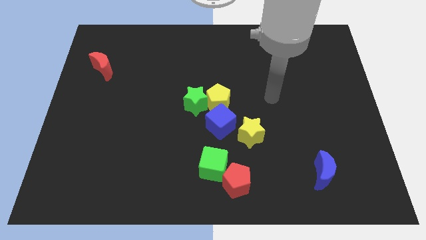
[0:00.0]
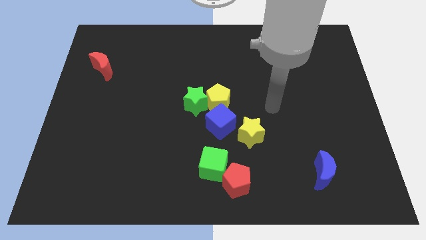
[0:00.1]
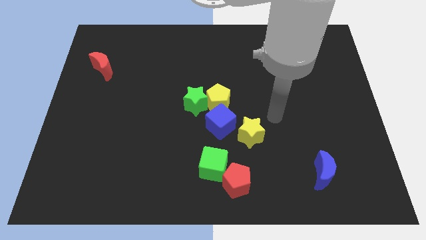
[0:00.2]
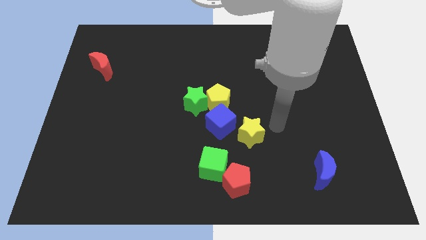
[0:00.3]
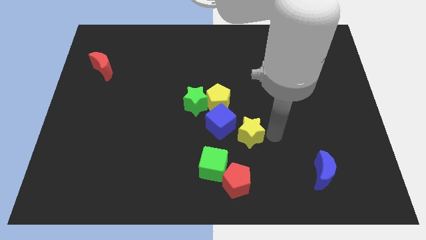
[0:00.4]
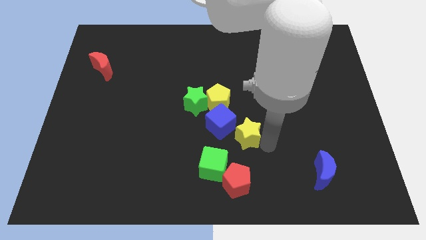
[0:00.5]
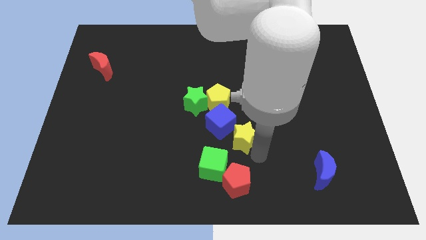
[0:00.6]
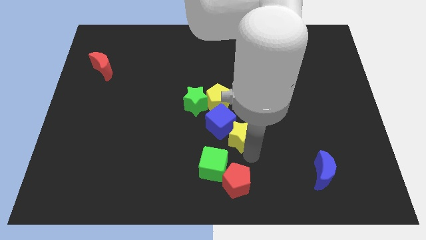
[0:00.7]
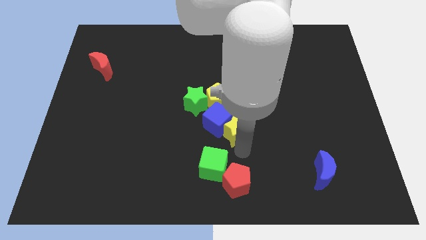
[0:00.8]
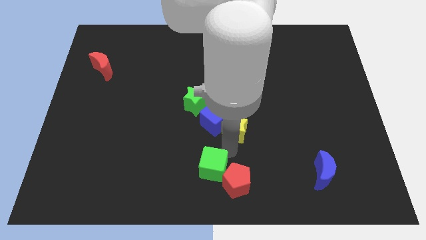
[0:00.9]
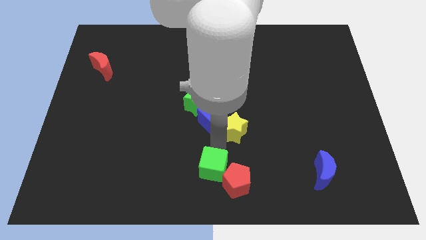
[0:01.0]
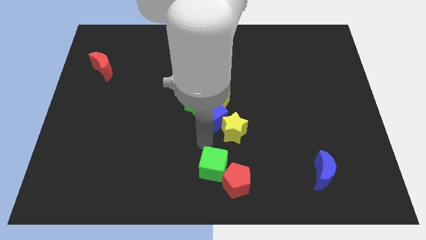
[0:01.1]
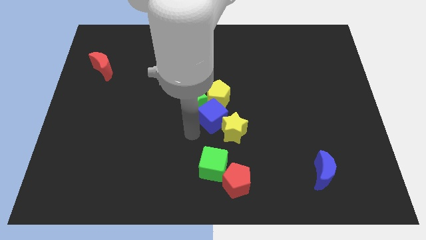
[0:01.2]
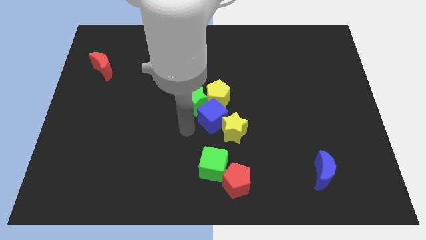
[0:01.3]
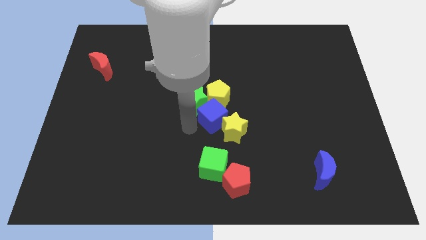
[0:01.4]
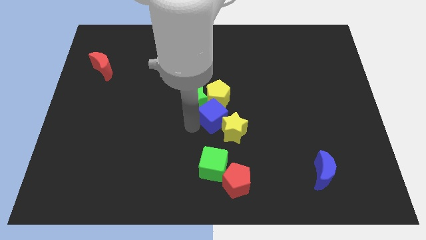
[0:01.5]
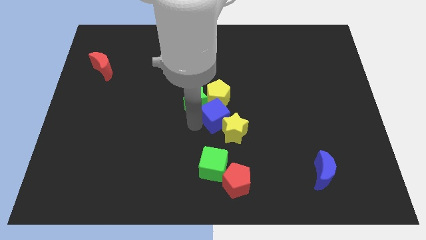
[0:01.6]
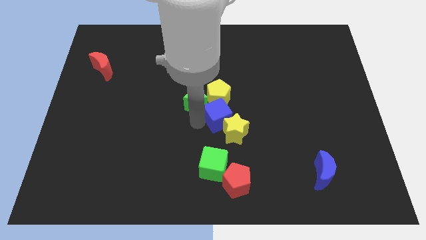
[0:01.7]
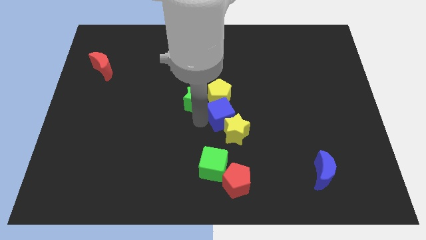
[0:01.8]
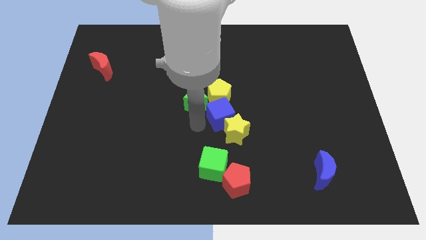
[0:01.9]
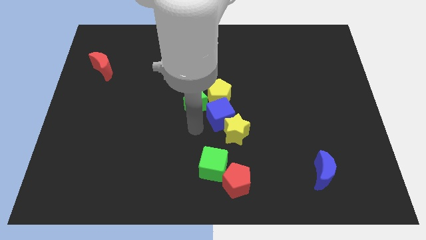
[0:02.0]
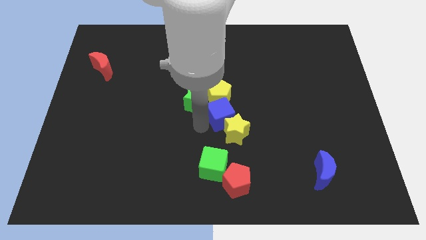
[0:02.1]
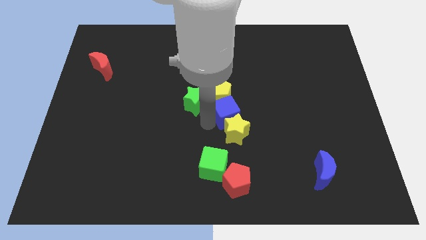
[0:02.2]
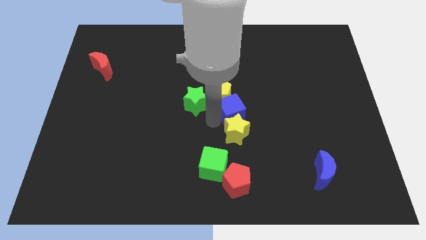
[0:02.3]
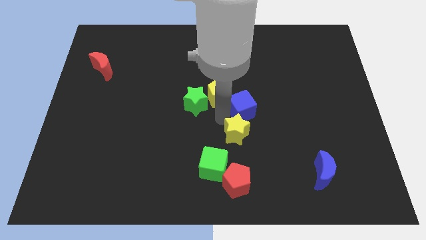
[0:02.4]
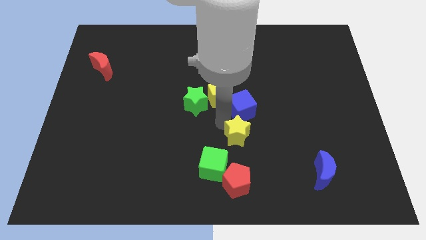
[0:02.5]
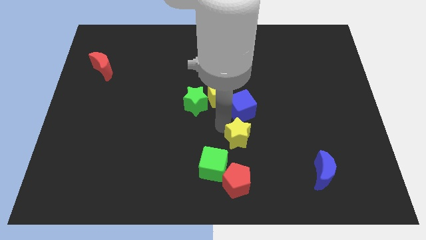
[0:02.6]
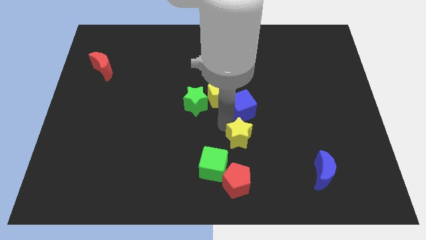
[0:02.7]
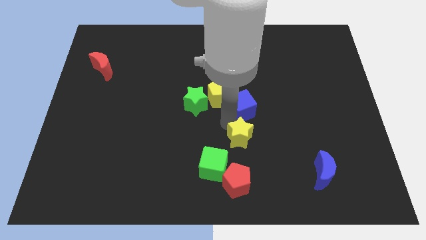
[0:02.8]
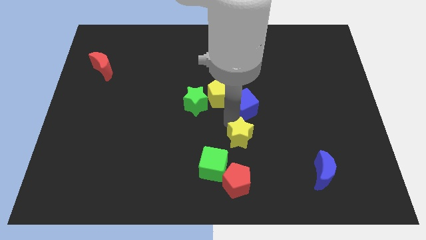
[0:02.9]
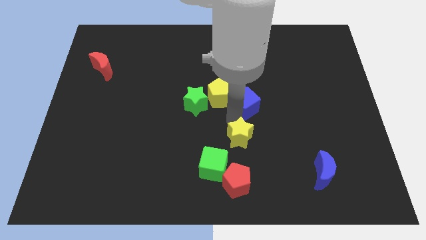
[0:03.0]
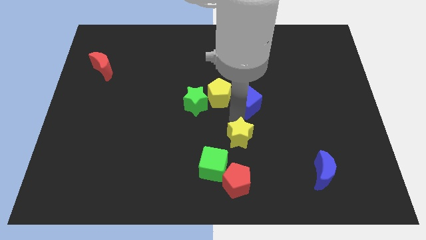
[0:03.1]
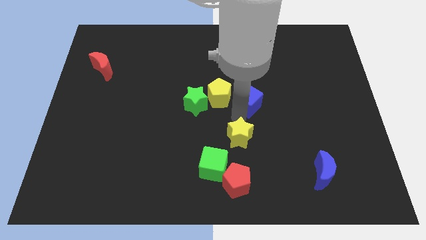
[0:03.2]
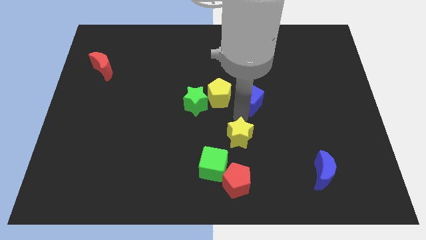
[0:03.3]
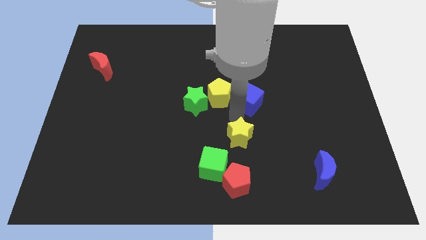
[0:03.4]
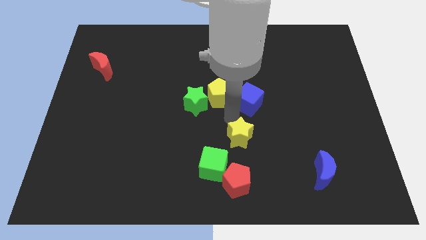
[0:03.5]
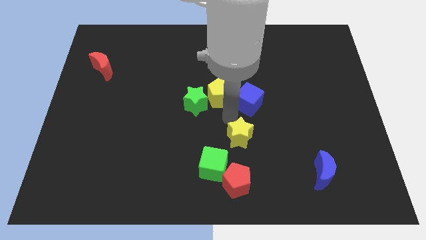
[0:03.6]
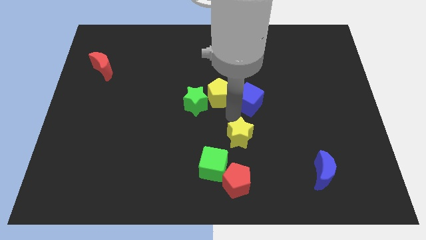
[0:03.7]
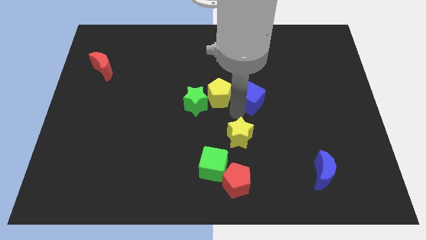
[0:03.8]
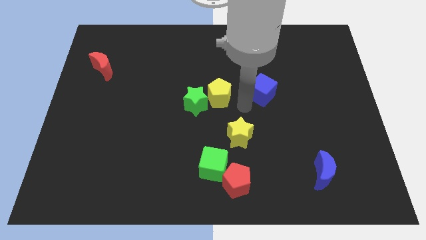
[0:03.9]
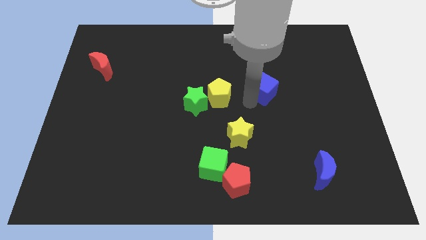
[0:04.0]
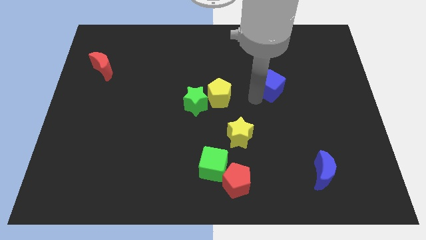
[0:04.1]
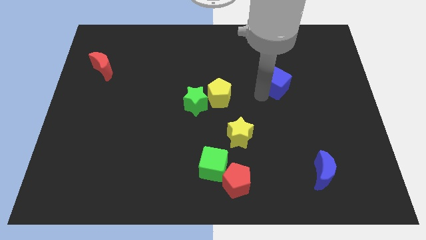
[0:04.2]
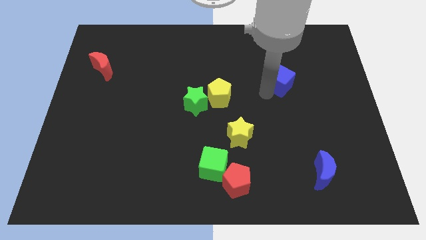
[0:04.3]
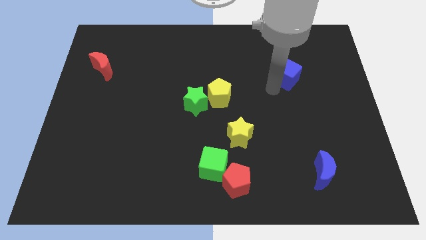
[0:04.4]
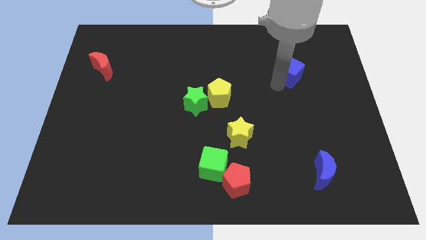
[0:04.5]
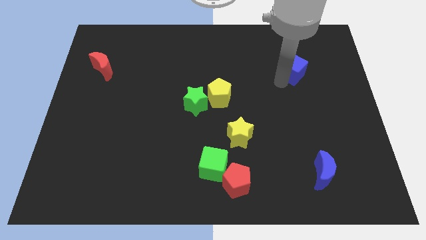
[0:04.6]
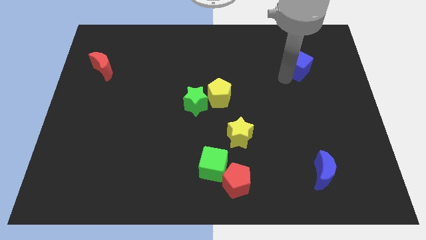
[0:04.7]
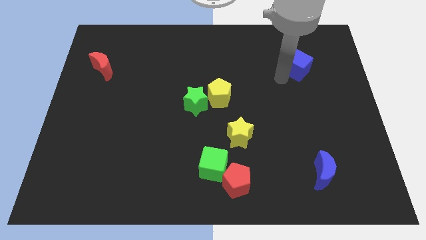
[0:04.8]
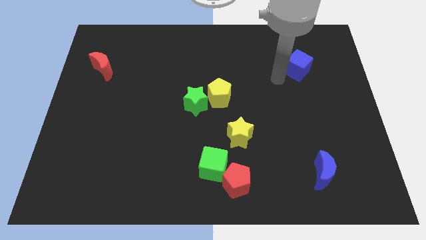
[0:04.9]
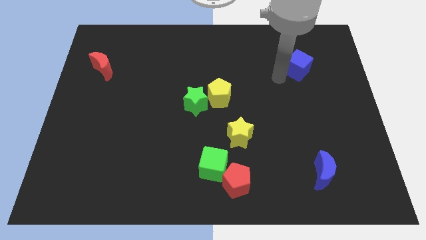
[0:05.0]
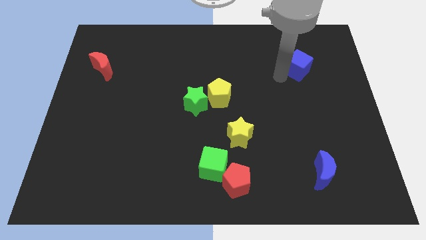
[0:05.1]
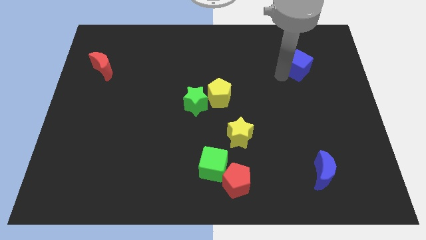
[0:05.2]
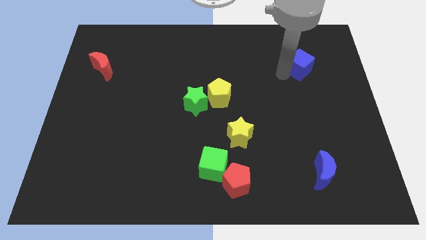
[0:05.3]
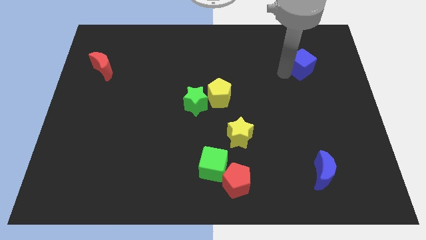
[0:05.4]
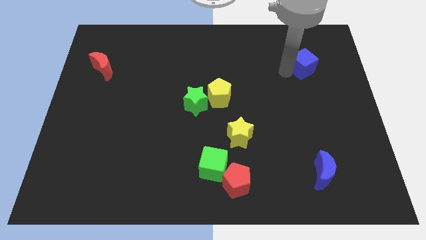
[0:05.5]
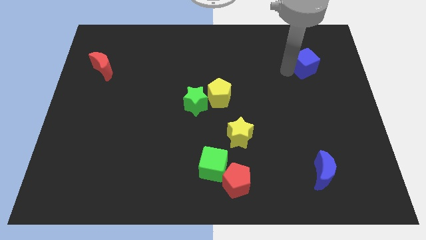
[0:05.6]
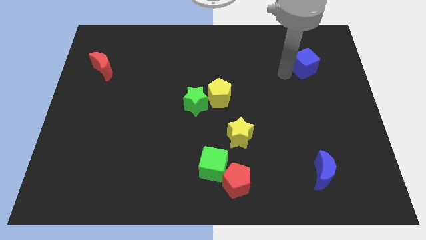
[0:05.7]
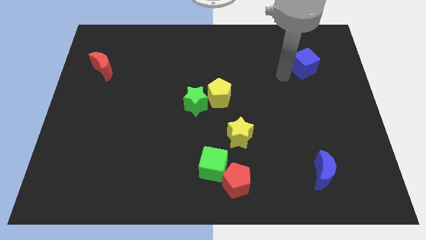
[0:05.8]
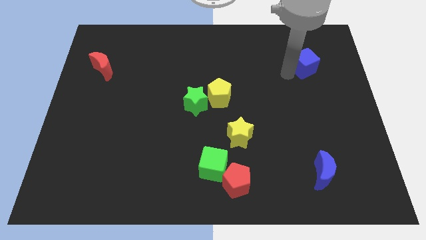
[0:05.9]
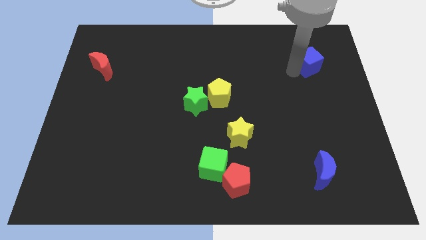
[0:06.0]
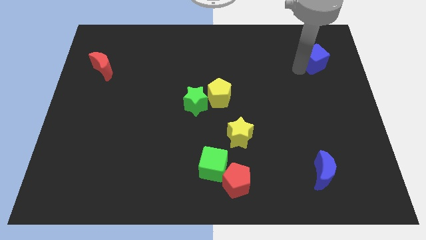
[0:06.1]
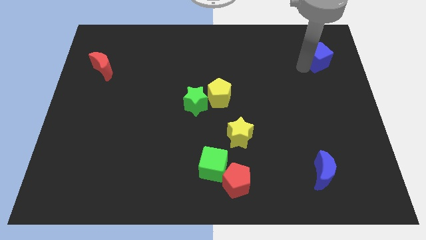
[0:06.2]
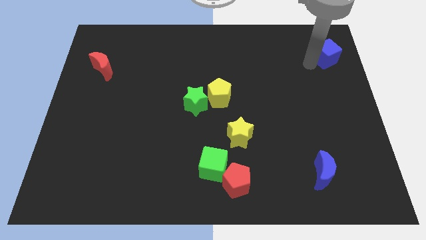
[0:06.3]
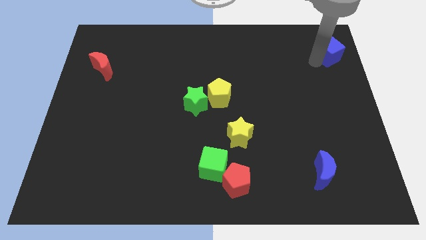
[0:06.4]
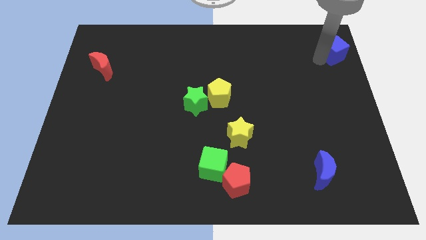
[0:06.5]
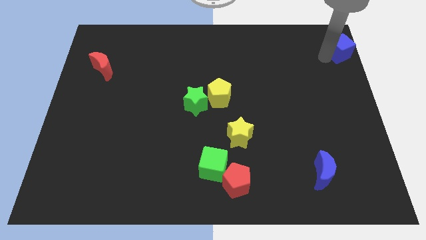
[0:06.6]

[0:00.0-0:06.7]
slide the blue cube to the top right corner
